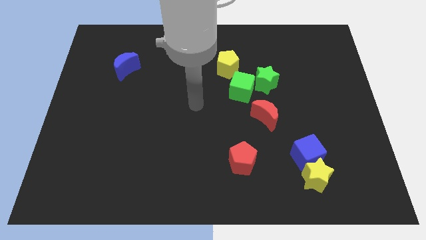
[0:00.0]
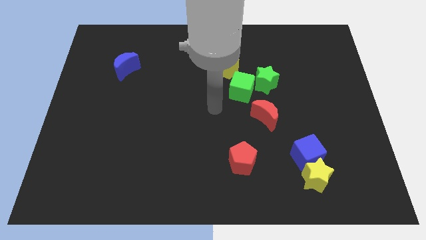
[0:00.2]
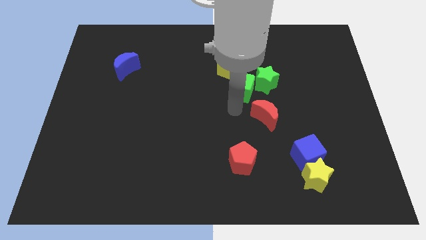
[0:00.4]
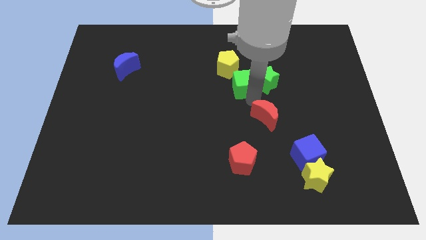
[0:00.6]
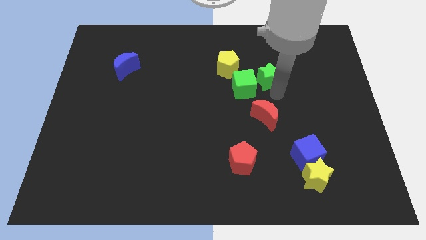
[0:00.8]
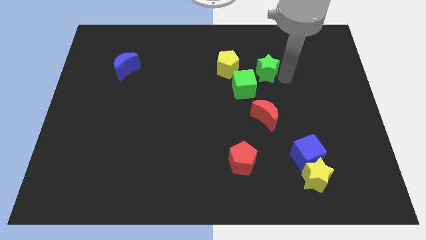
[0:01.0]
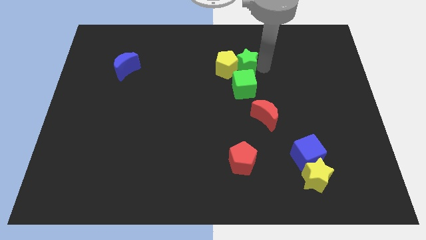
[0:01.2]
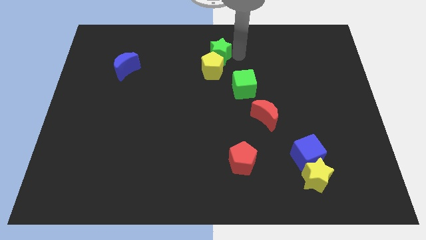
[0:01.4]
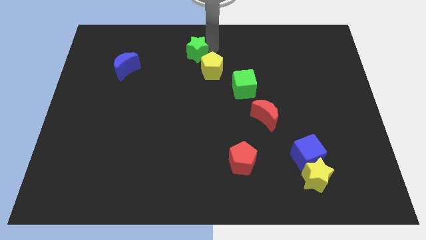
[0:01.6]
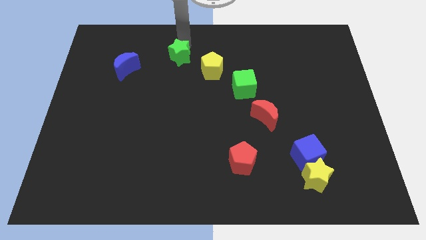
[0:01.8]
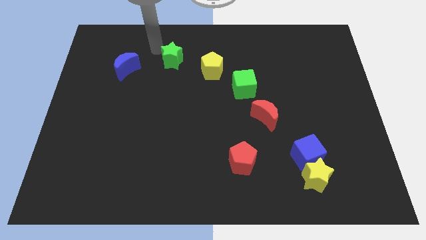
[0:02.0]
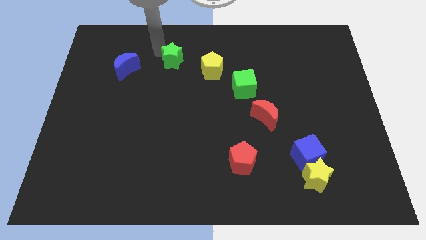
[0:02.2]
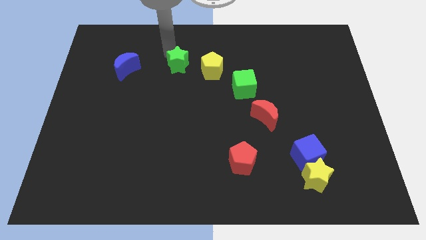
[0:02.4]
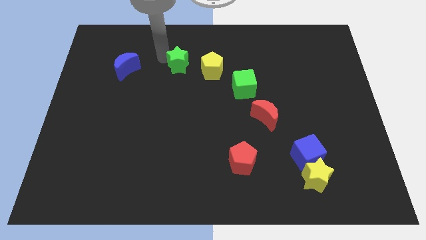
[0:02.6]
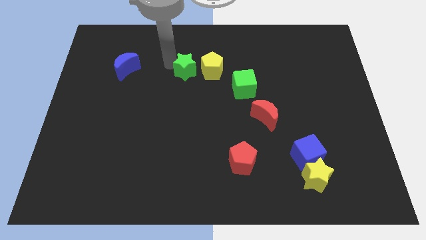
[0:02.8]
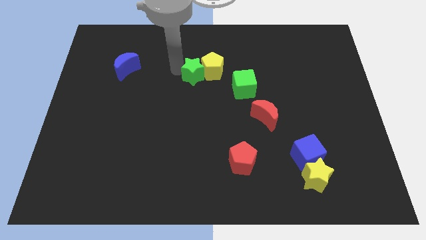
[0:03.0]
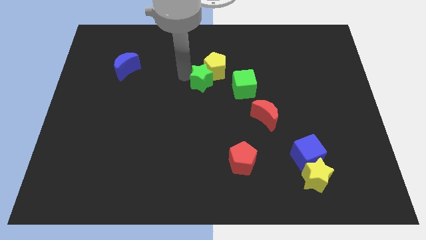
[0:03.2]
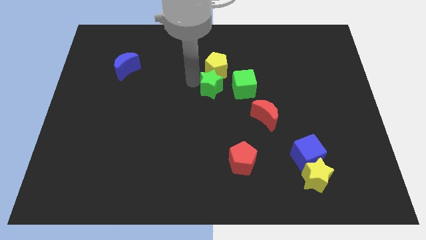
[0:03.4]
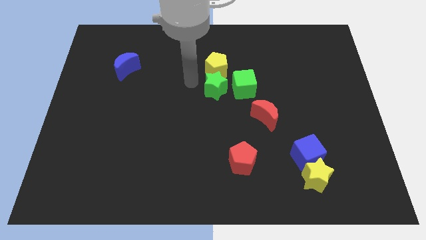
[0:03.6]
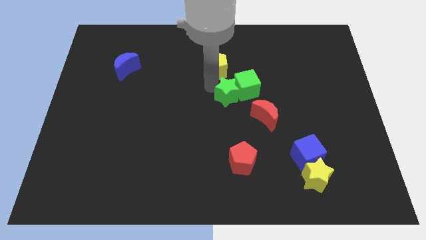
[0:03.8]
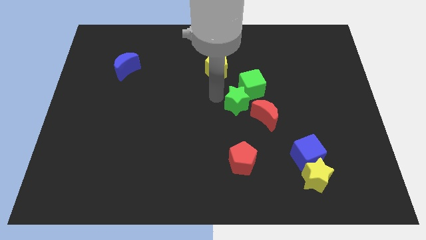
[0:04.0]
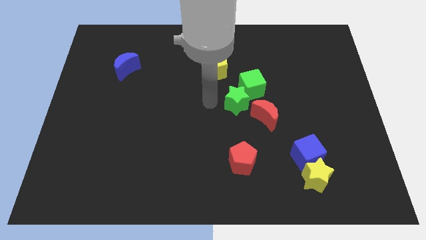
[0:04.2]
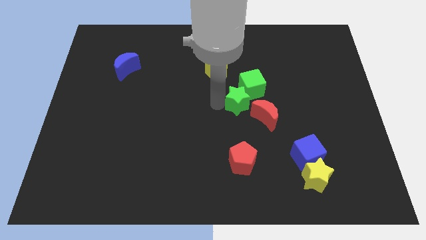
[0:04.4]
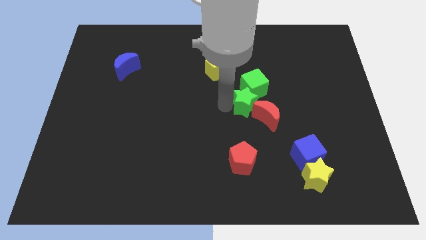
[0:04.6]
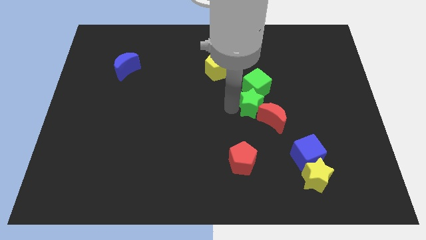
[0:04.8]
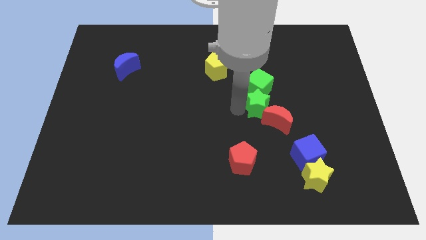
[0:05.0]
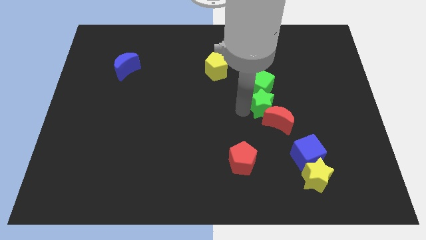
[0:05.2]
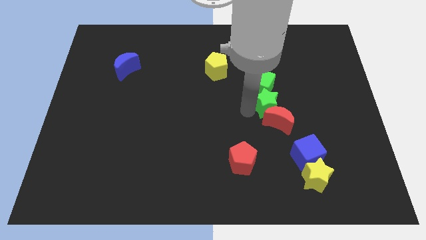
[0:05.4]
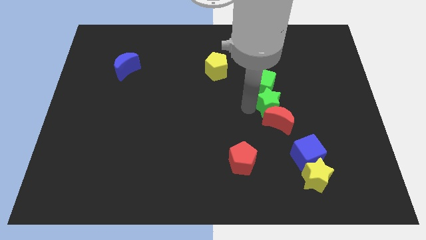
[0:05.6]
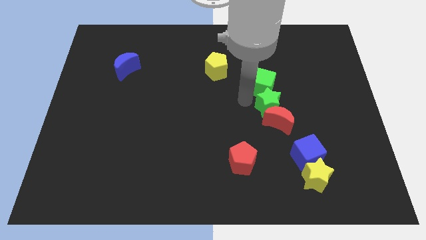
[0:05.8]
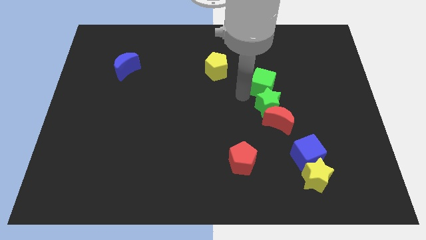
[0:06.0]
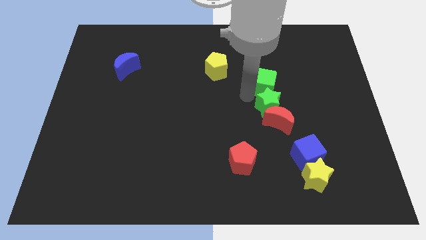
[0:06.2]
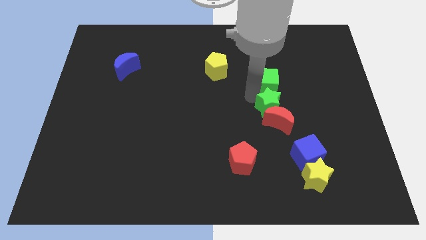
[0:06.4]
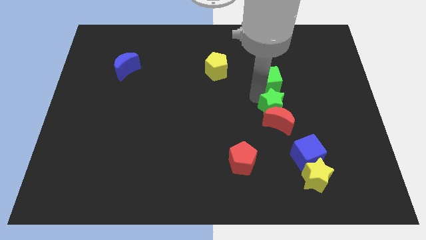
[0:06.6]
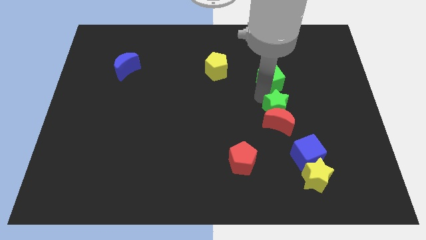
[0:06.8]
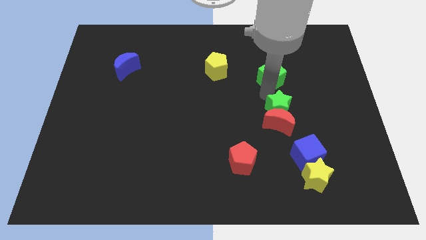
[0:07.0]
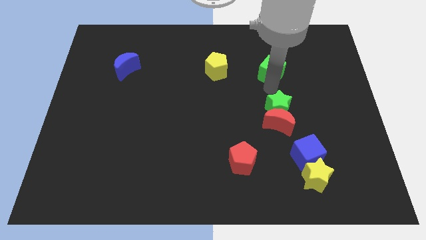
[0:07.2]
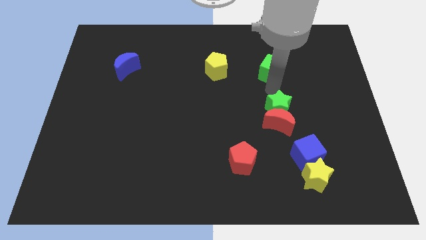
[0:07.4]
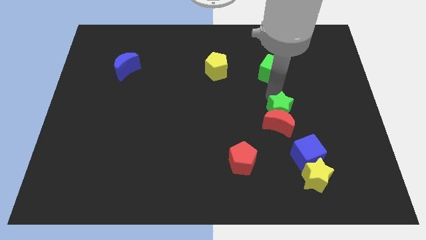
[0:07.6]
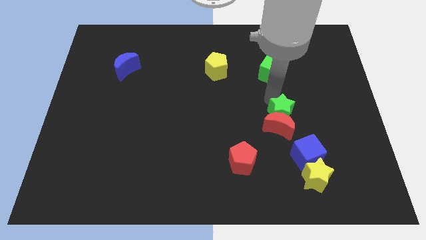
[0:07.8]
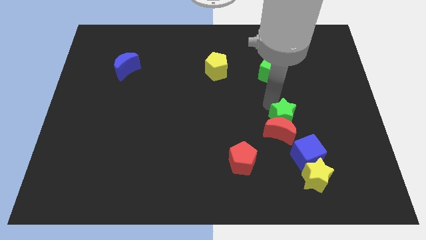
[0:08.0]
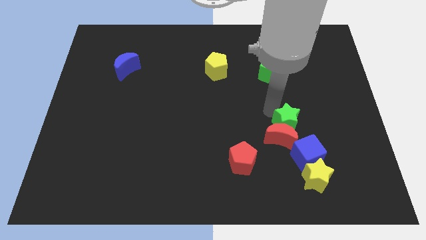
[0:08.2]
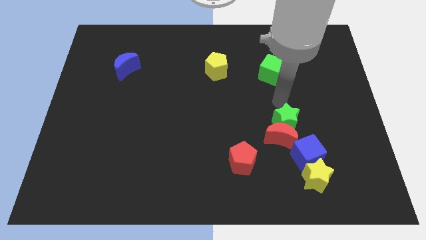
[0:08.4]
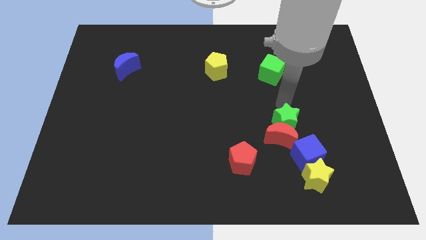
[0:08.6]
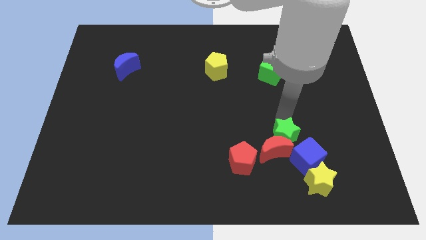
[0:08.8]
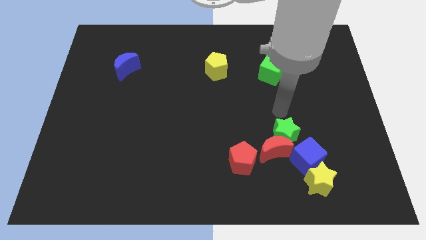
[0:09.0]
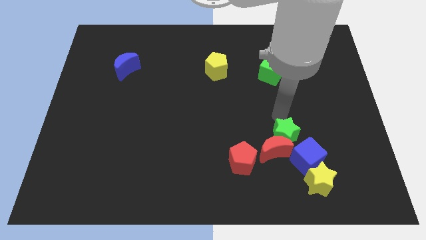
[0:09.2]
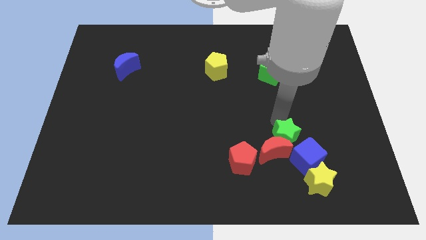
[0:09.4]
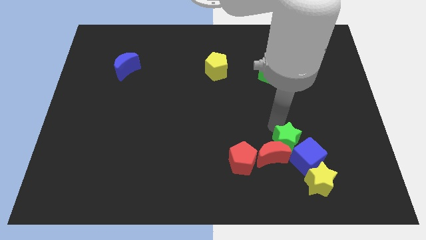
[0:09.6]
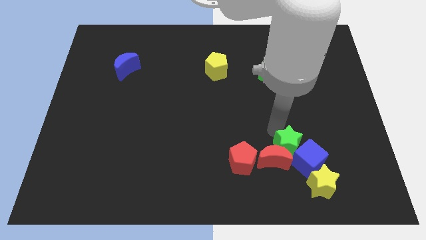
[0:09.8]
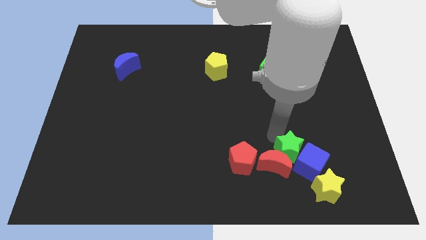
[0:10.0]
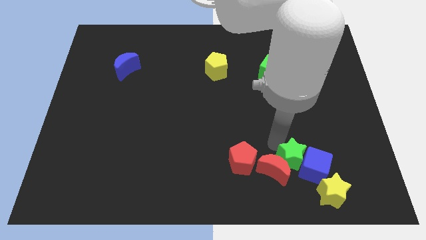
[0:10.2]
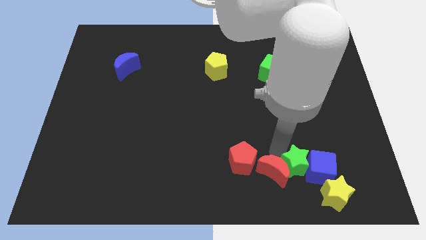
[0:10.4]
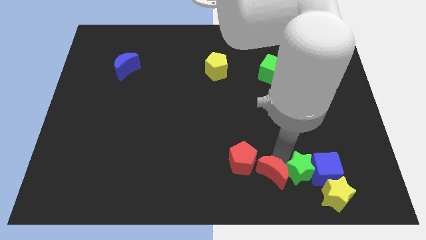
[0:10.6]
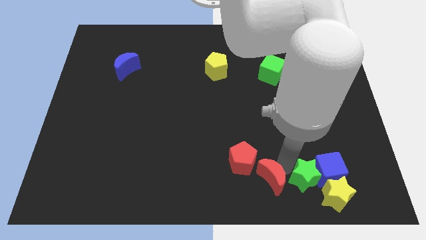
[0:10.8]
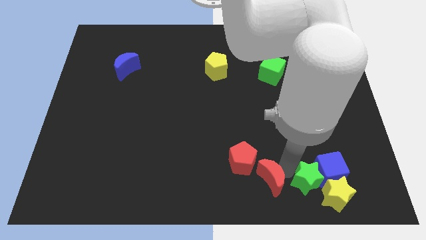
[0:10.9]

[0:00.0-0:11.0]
slide the green star towards the yellow star

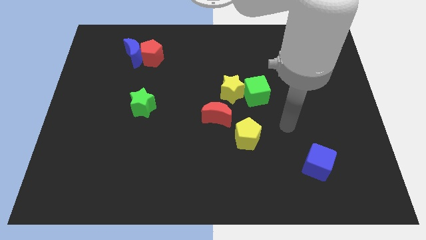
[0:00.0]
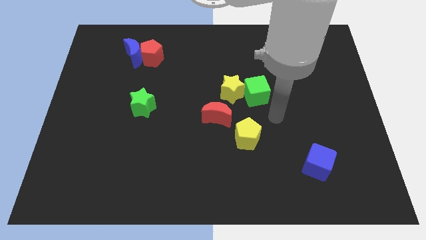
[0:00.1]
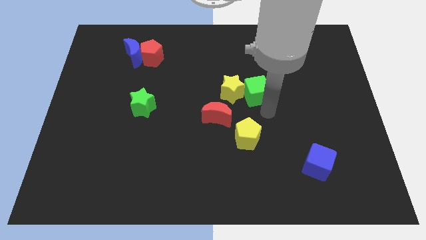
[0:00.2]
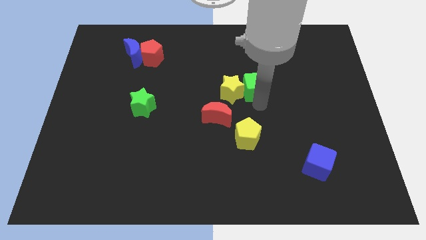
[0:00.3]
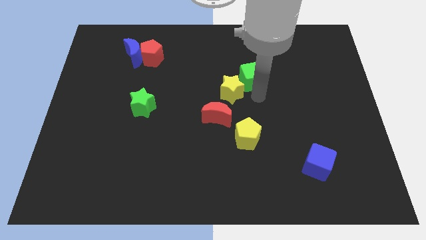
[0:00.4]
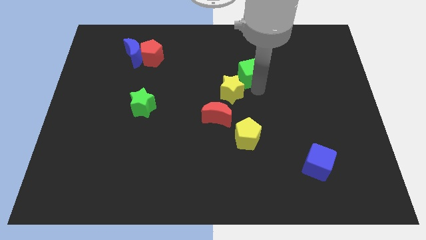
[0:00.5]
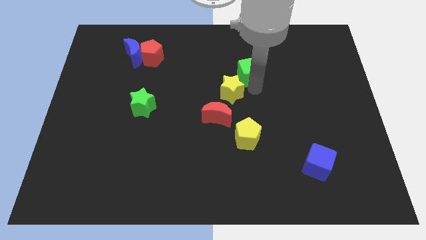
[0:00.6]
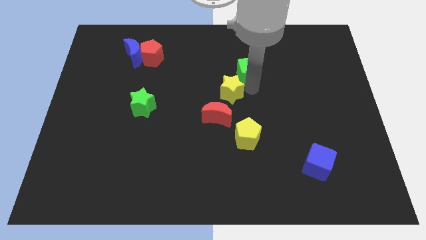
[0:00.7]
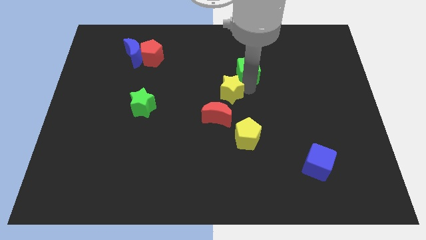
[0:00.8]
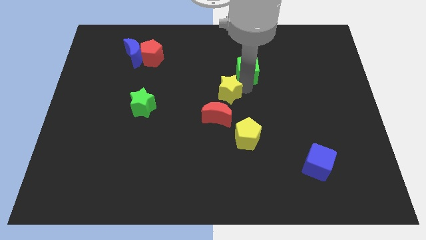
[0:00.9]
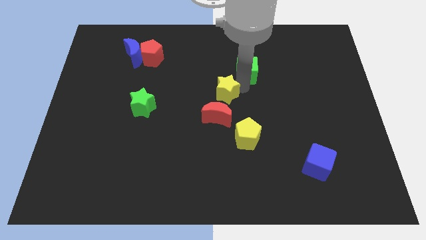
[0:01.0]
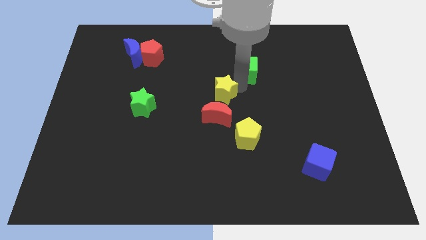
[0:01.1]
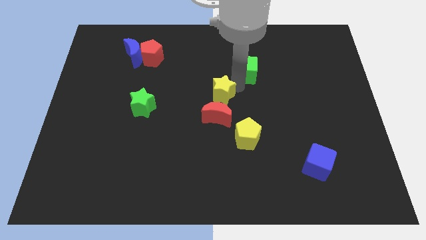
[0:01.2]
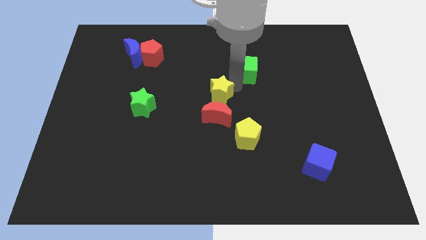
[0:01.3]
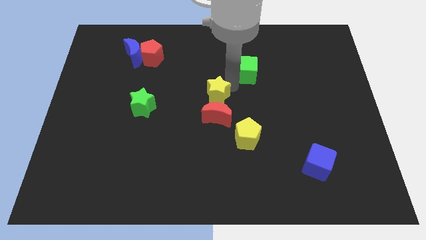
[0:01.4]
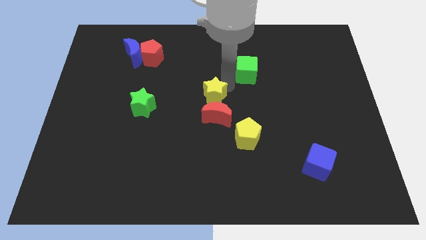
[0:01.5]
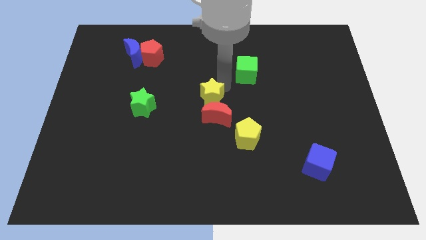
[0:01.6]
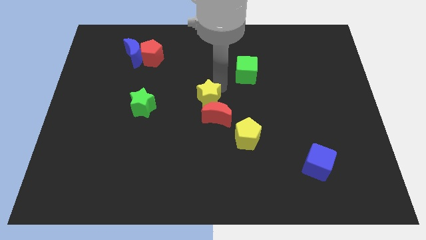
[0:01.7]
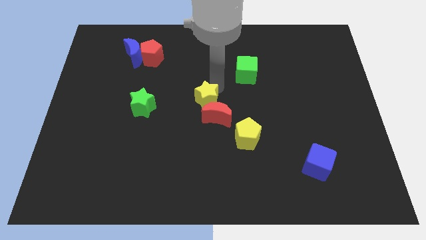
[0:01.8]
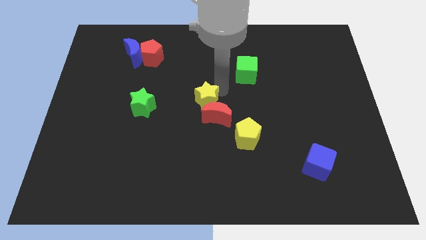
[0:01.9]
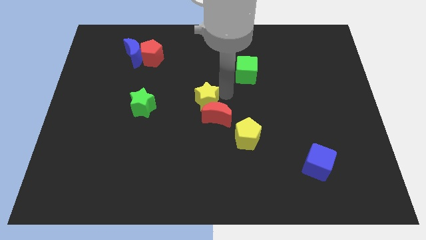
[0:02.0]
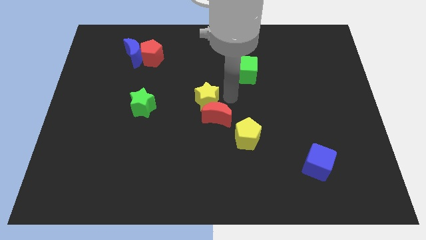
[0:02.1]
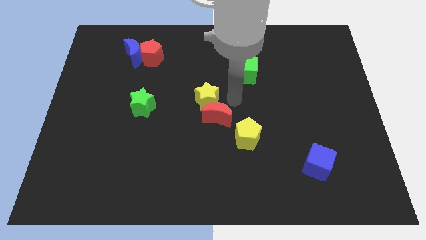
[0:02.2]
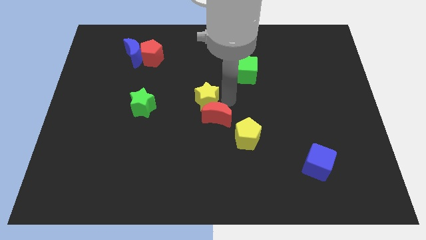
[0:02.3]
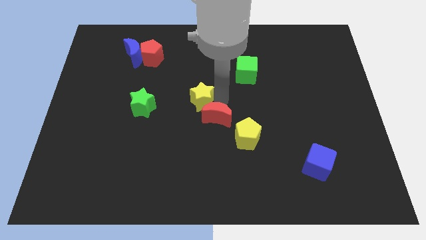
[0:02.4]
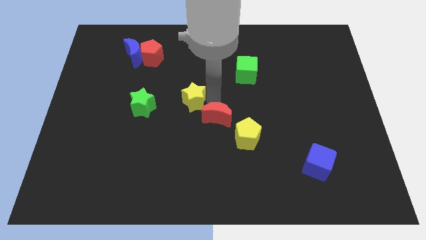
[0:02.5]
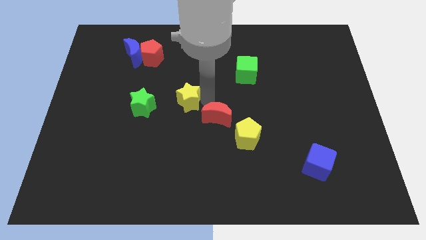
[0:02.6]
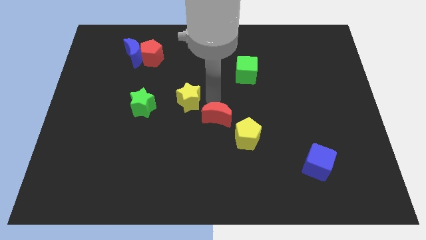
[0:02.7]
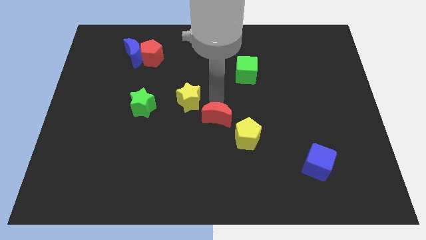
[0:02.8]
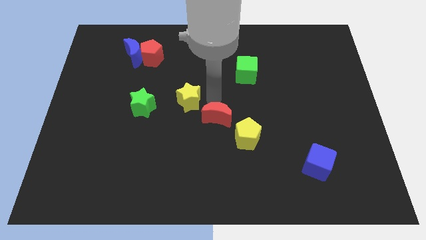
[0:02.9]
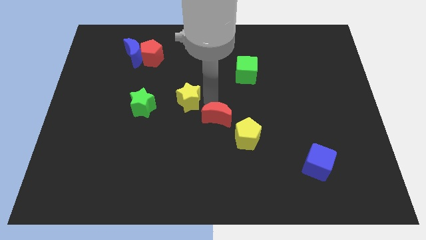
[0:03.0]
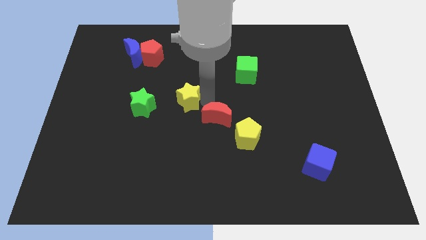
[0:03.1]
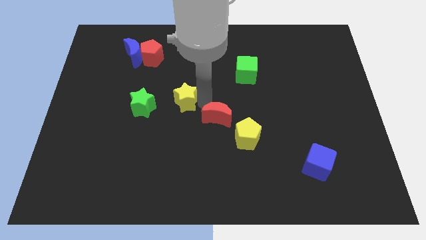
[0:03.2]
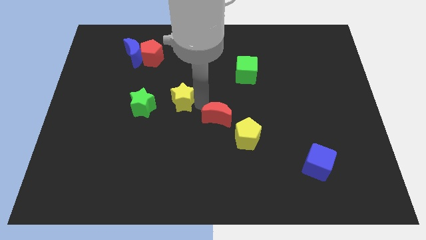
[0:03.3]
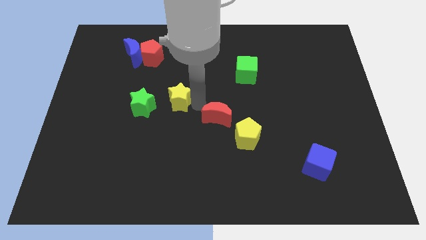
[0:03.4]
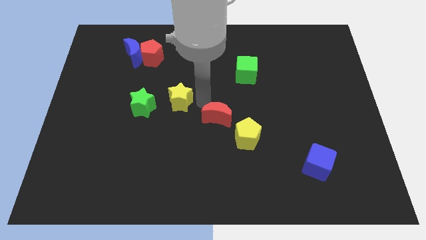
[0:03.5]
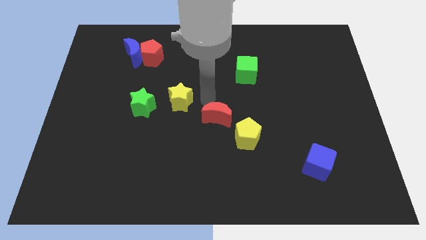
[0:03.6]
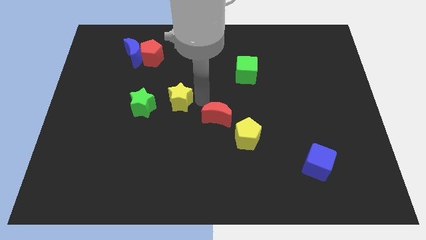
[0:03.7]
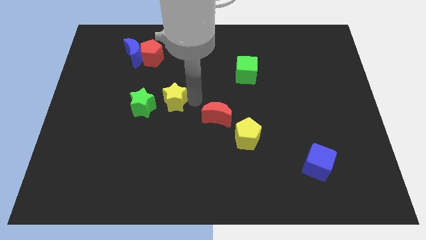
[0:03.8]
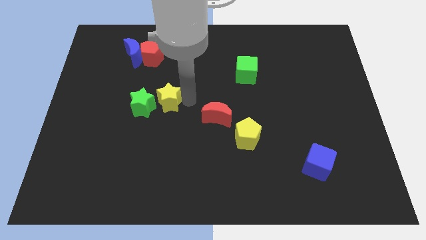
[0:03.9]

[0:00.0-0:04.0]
move the yellow star to the green star
